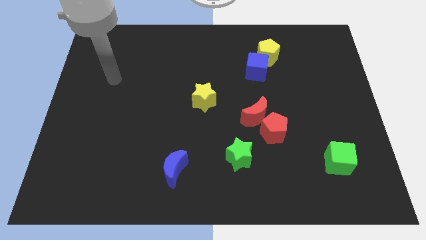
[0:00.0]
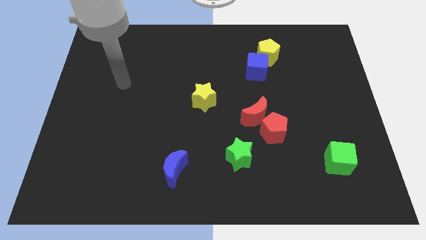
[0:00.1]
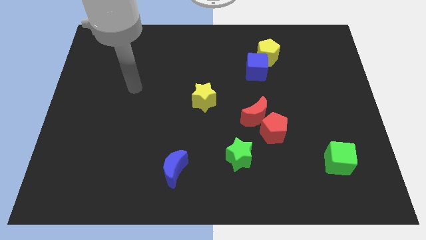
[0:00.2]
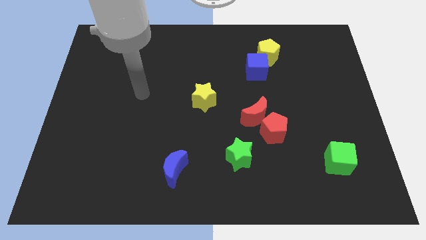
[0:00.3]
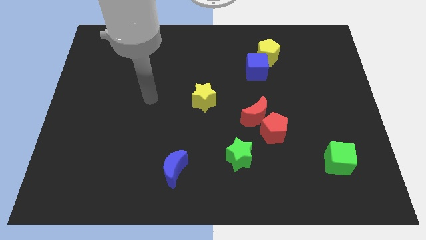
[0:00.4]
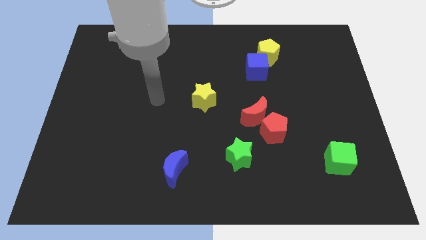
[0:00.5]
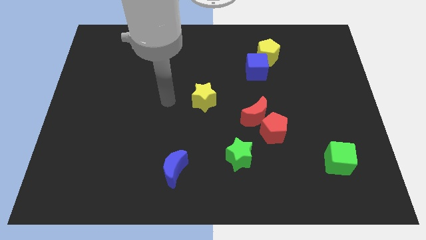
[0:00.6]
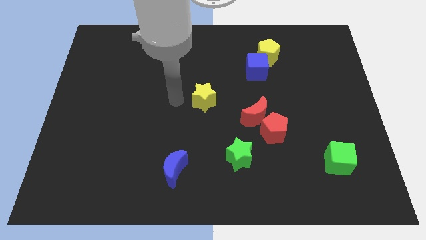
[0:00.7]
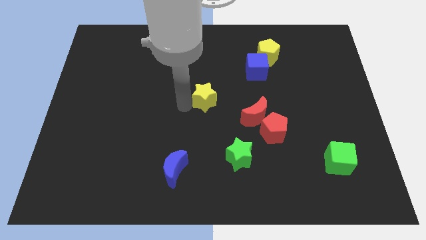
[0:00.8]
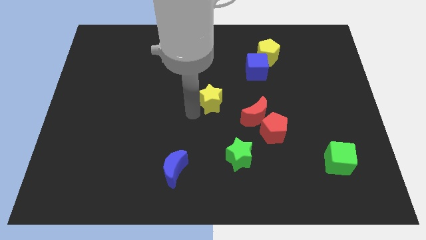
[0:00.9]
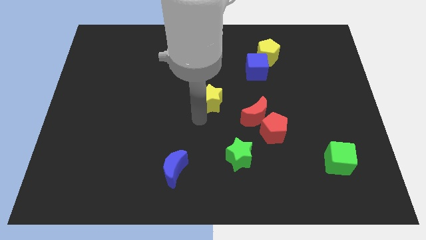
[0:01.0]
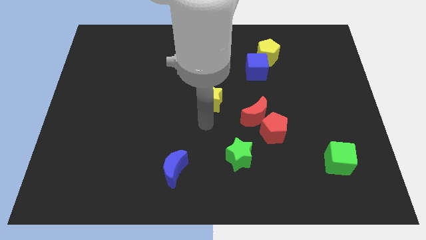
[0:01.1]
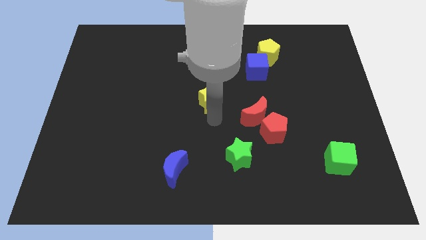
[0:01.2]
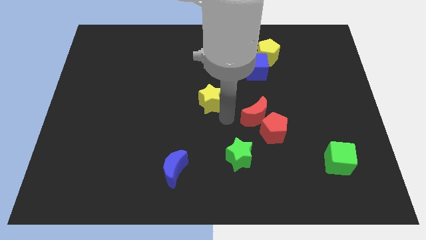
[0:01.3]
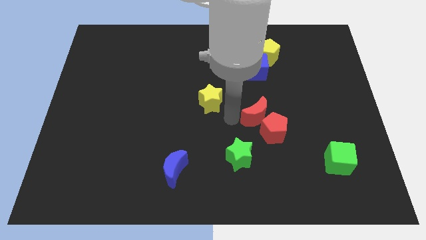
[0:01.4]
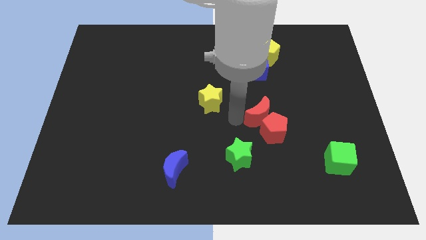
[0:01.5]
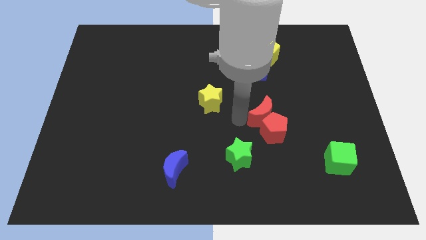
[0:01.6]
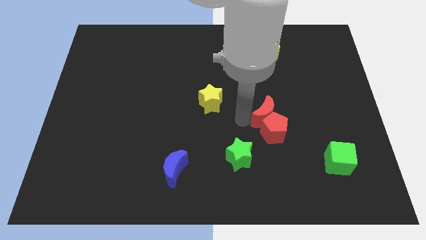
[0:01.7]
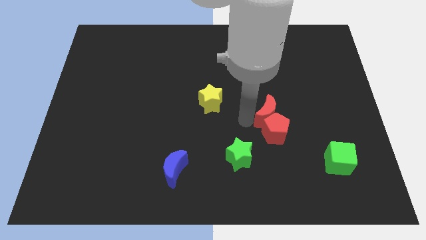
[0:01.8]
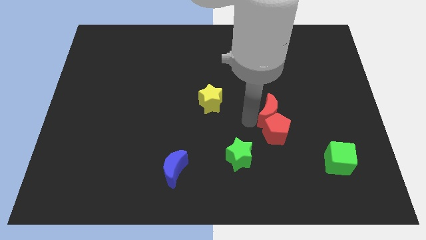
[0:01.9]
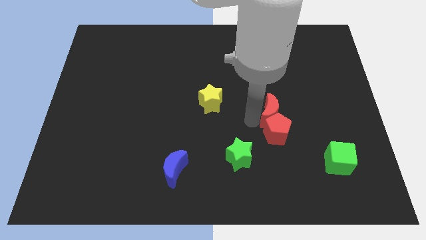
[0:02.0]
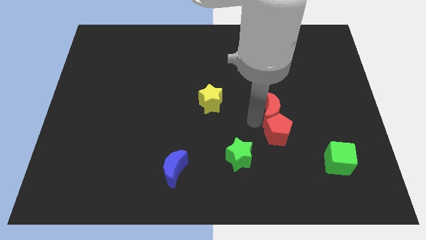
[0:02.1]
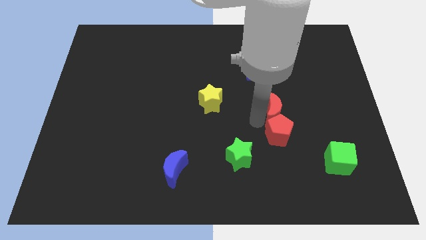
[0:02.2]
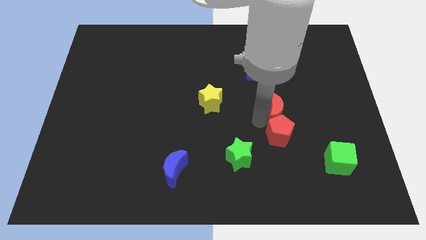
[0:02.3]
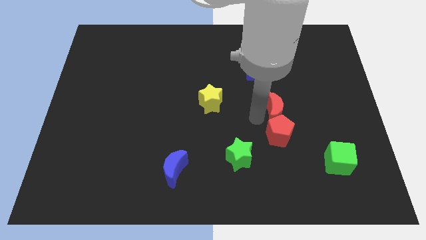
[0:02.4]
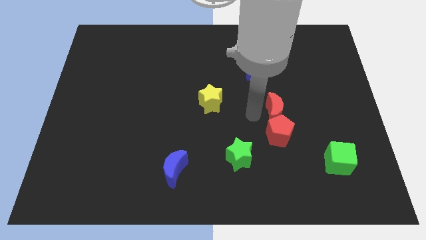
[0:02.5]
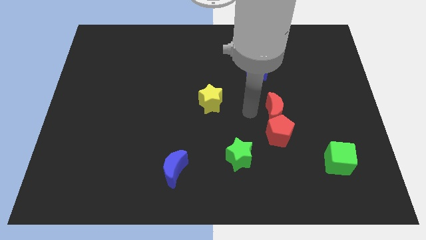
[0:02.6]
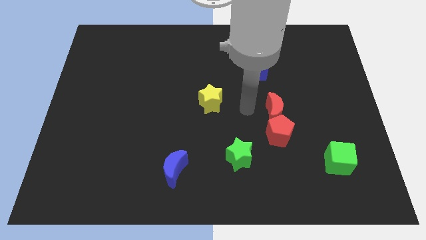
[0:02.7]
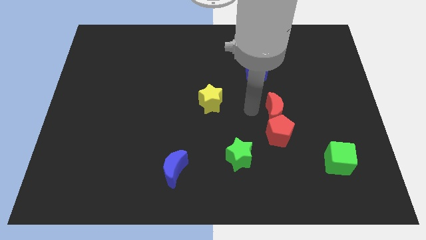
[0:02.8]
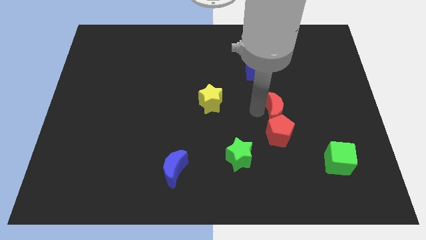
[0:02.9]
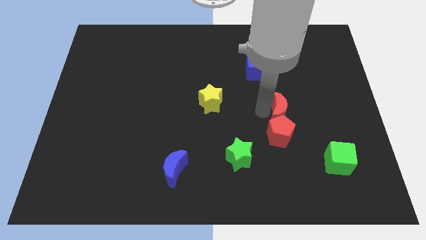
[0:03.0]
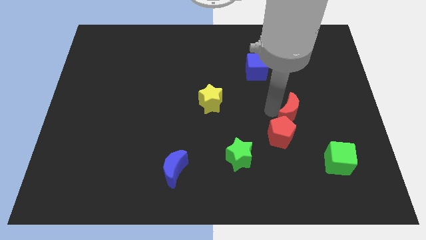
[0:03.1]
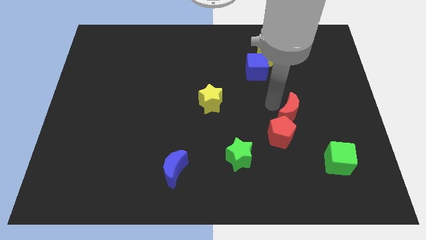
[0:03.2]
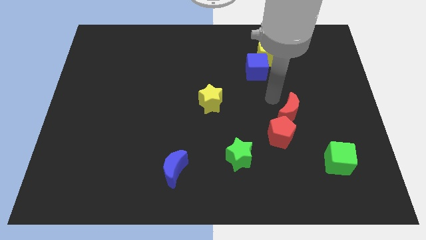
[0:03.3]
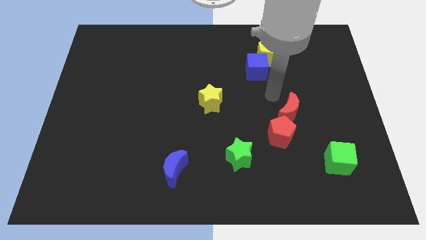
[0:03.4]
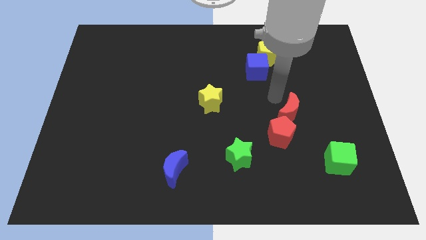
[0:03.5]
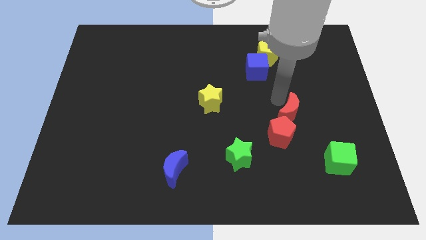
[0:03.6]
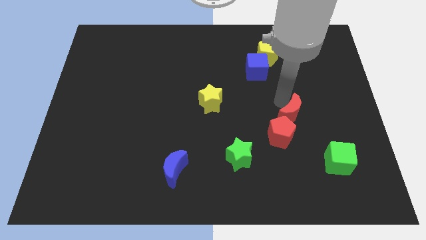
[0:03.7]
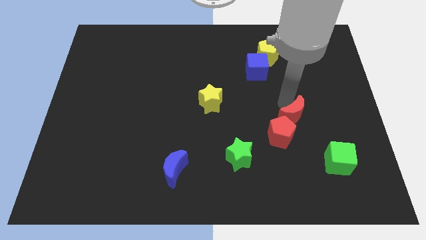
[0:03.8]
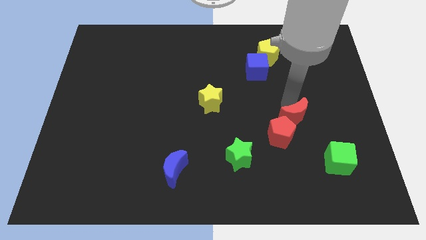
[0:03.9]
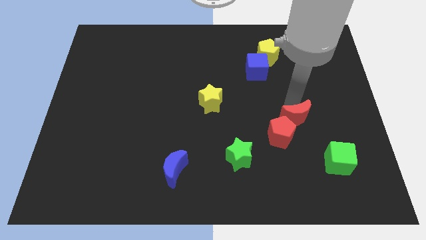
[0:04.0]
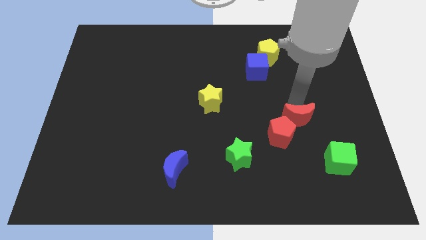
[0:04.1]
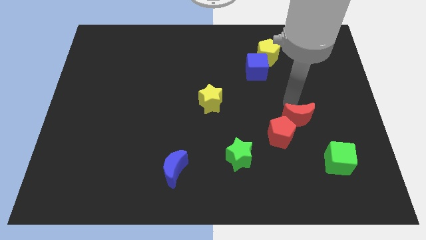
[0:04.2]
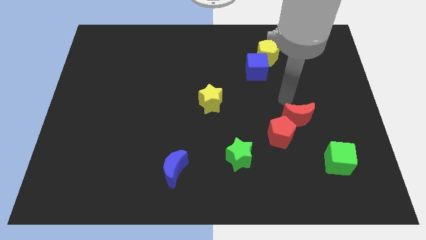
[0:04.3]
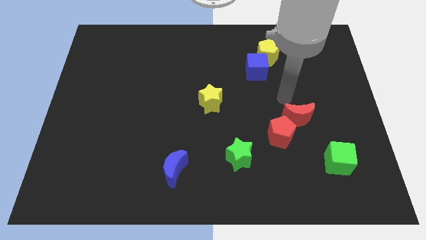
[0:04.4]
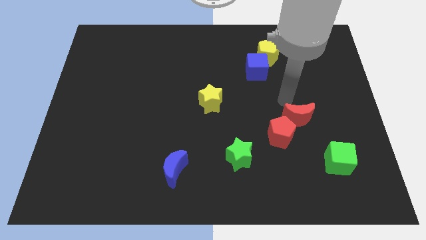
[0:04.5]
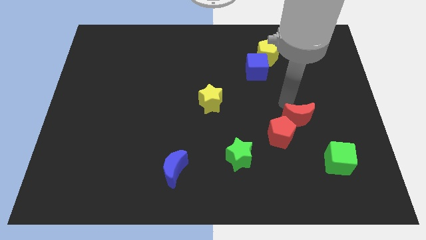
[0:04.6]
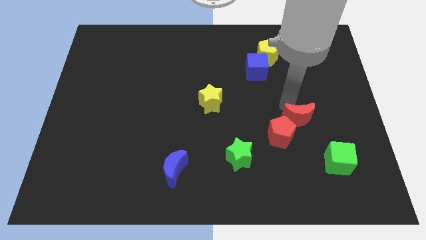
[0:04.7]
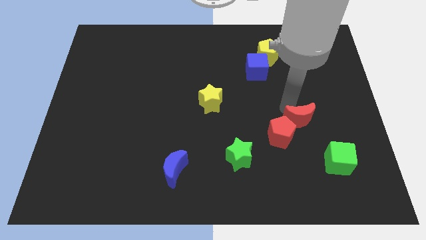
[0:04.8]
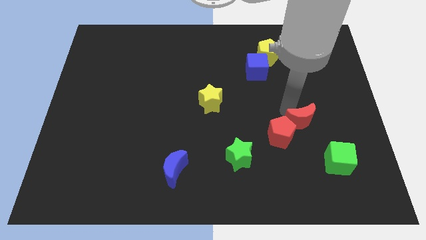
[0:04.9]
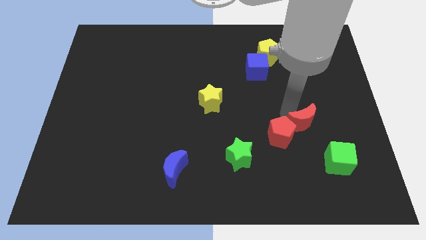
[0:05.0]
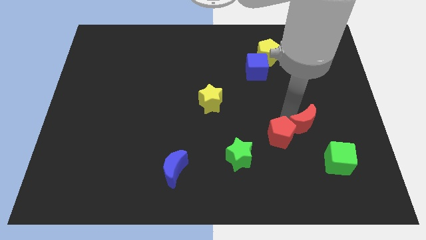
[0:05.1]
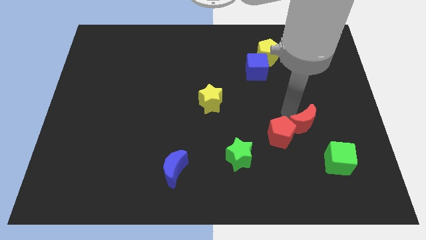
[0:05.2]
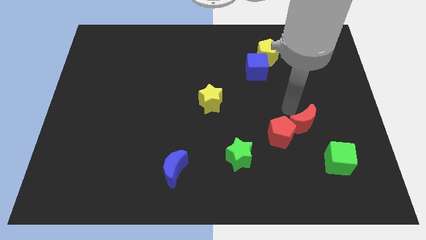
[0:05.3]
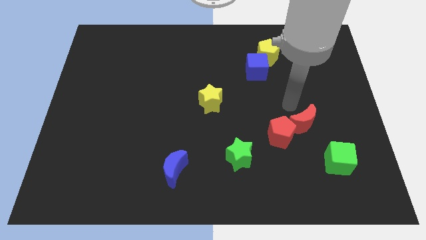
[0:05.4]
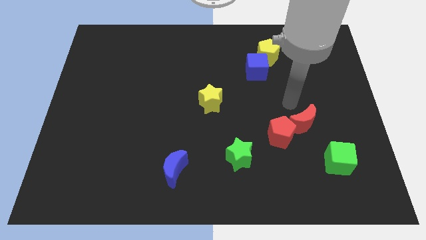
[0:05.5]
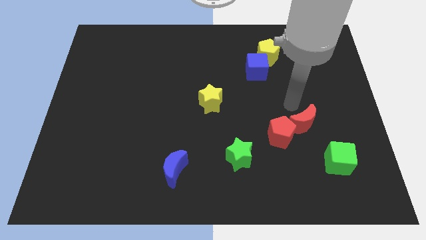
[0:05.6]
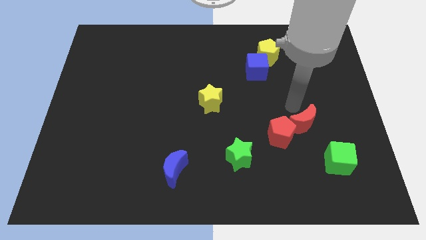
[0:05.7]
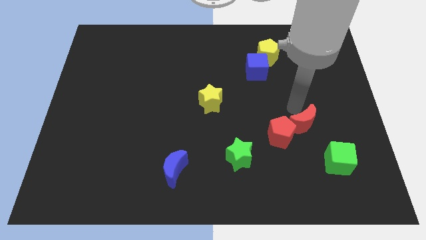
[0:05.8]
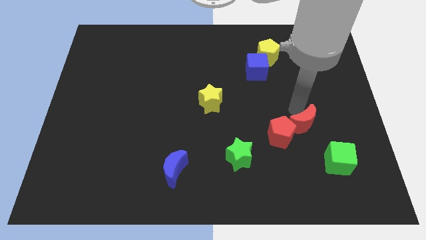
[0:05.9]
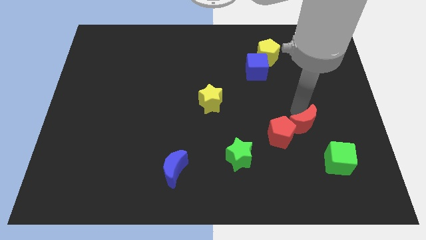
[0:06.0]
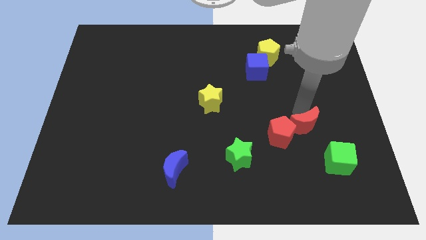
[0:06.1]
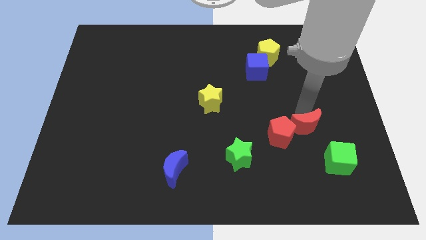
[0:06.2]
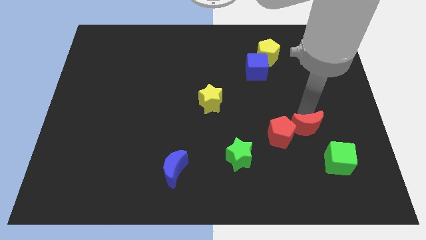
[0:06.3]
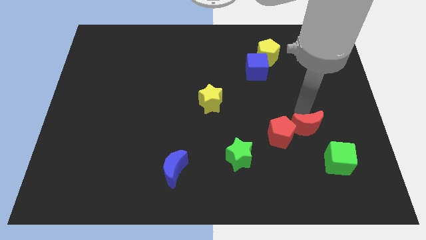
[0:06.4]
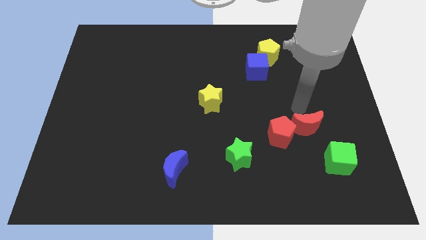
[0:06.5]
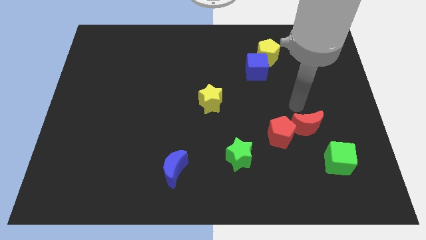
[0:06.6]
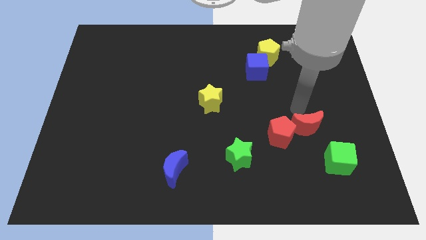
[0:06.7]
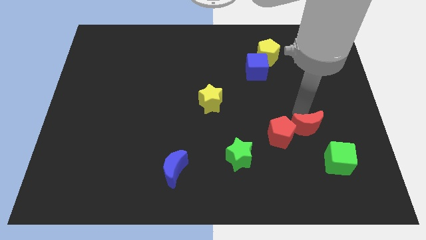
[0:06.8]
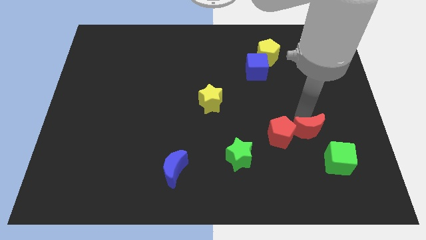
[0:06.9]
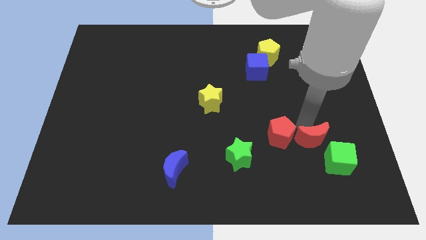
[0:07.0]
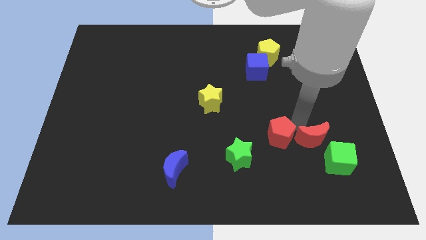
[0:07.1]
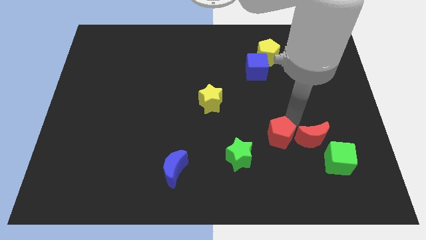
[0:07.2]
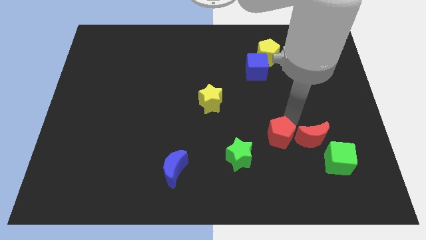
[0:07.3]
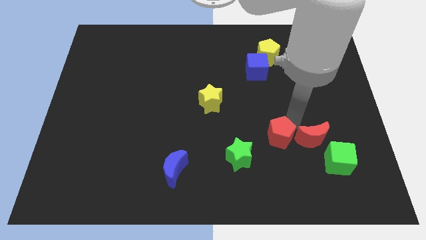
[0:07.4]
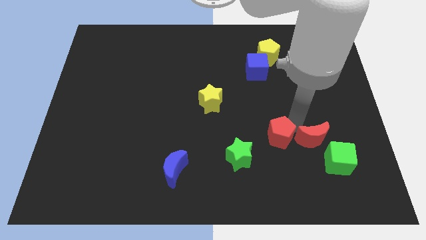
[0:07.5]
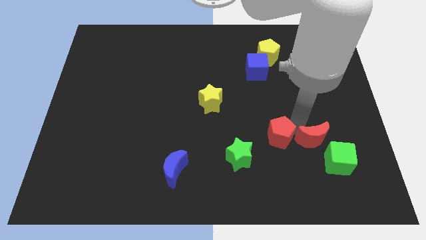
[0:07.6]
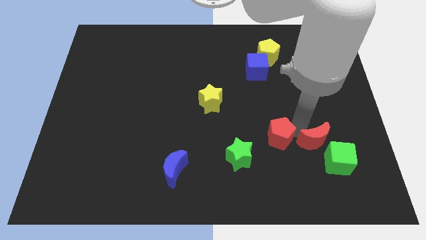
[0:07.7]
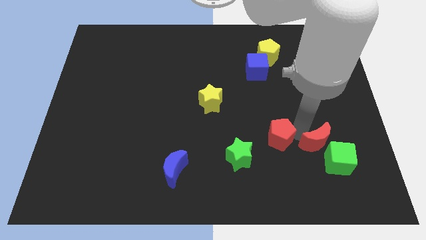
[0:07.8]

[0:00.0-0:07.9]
put the red moon close to the green cube
